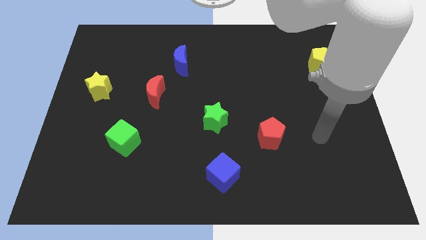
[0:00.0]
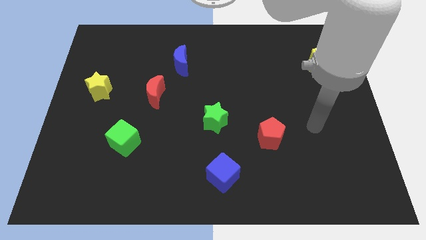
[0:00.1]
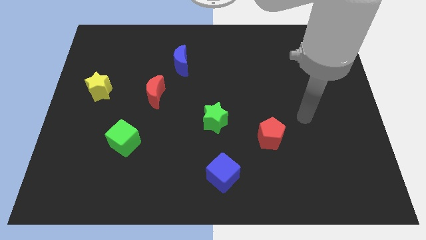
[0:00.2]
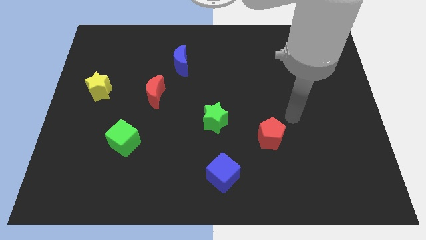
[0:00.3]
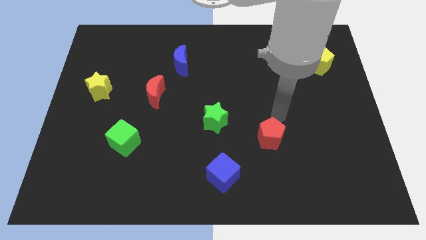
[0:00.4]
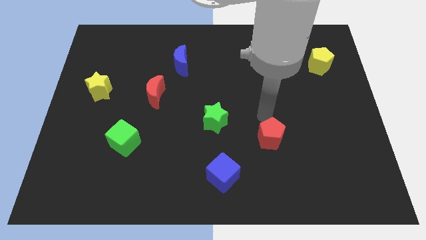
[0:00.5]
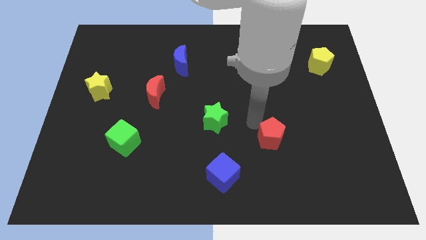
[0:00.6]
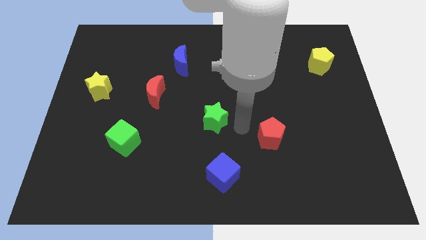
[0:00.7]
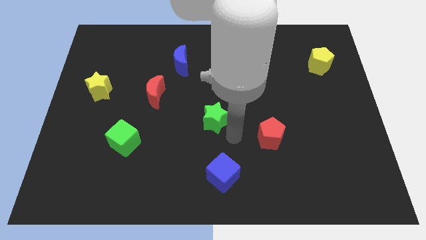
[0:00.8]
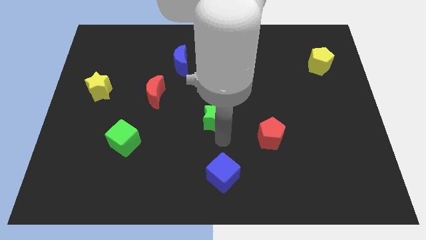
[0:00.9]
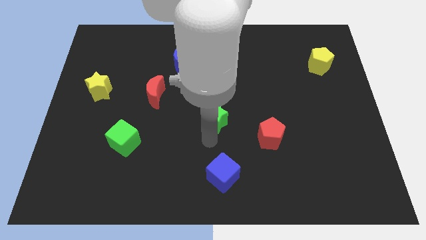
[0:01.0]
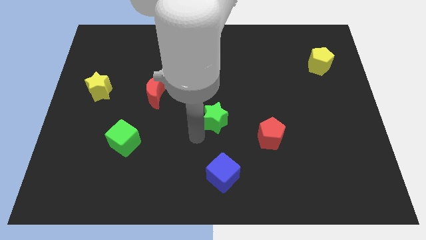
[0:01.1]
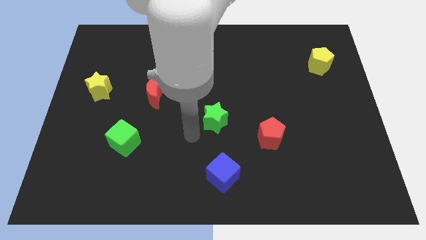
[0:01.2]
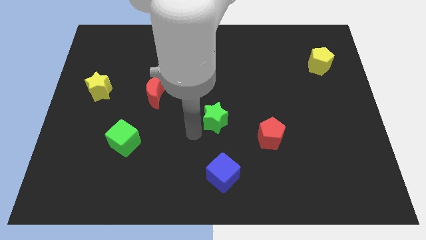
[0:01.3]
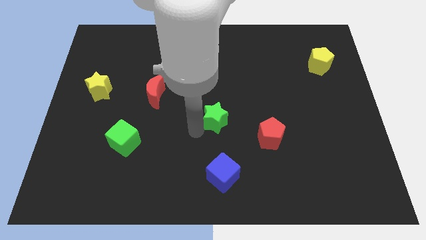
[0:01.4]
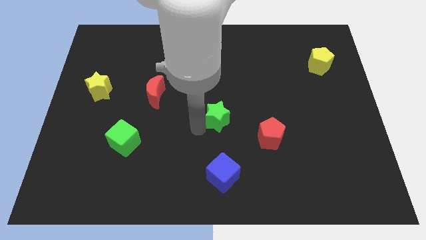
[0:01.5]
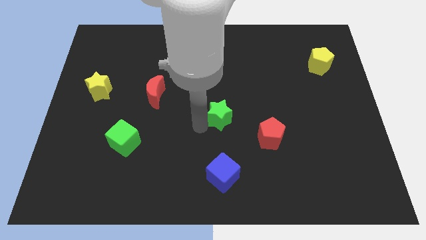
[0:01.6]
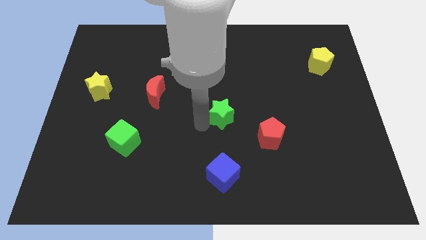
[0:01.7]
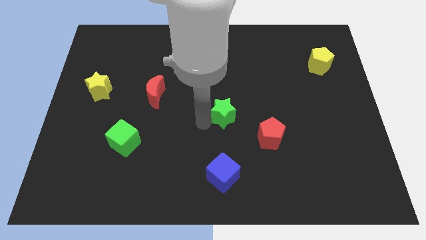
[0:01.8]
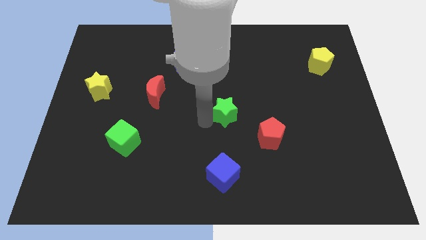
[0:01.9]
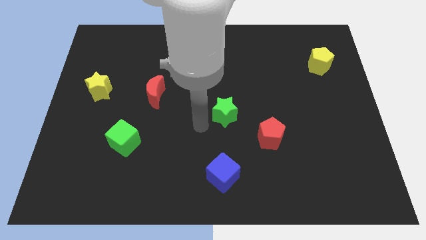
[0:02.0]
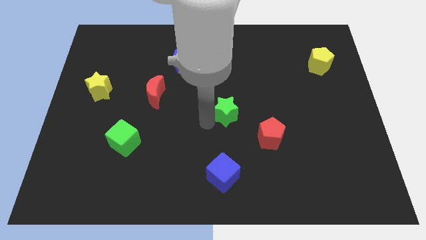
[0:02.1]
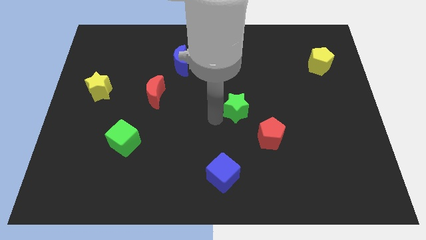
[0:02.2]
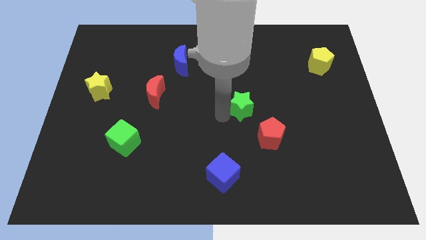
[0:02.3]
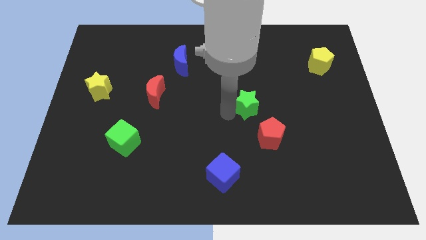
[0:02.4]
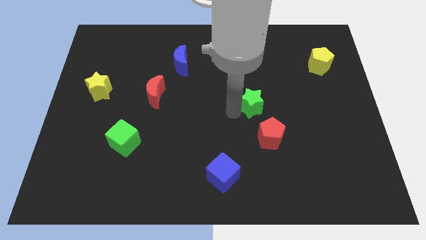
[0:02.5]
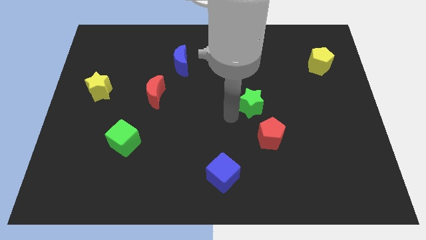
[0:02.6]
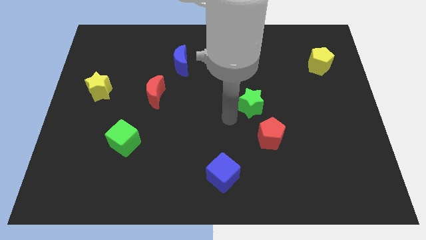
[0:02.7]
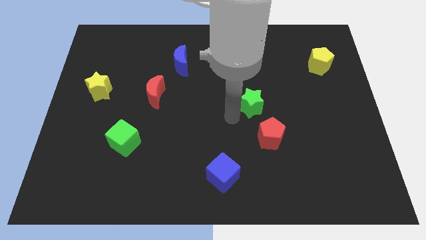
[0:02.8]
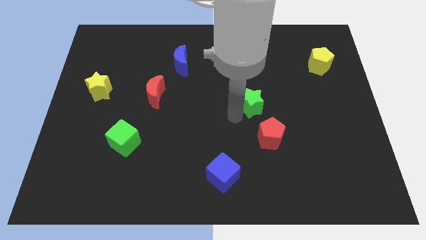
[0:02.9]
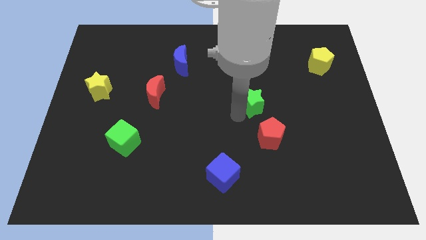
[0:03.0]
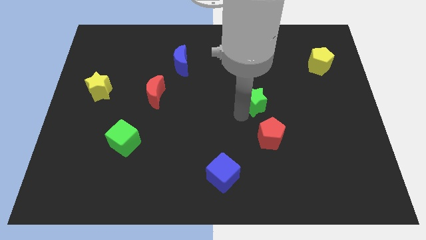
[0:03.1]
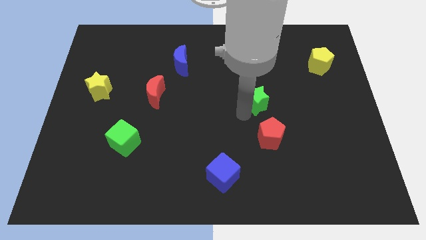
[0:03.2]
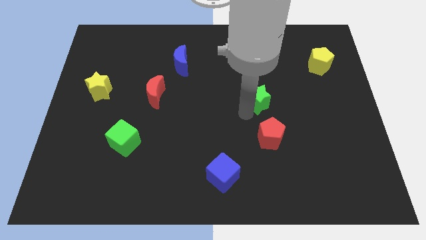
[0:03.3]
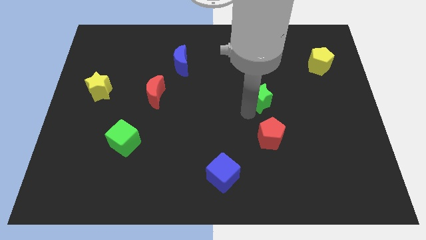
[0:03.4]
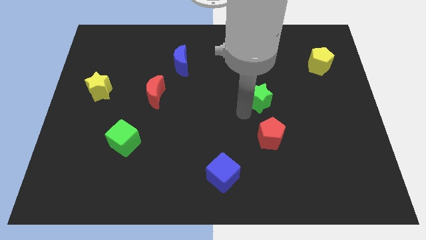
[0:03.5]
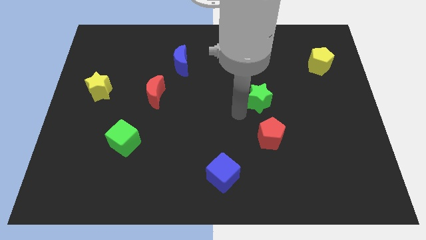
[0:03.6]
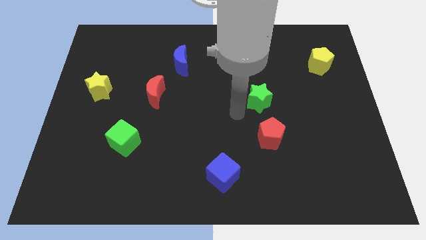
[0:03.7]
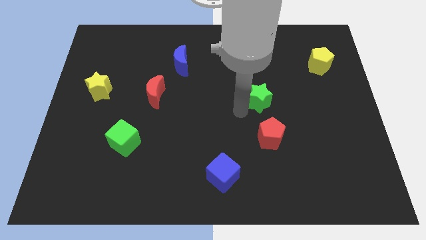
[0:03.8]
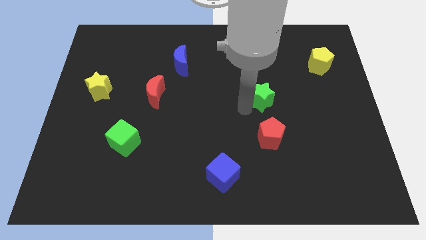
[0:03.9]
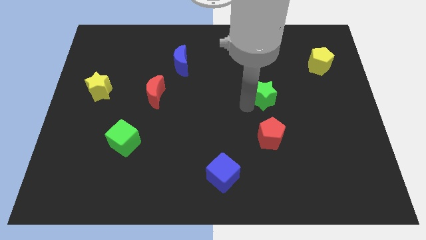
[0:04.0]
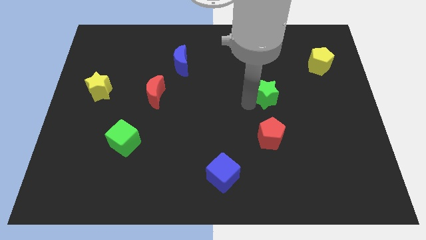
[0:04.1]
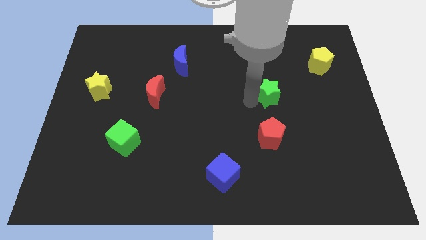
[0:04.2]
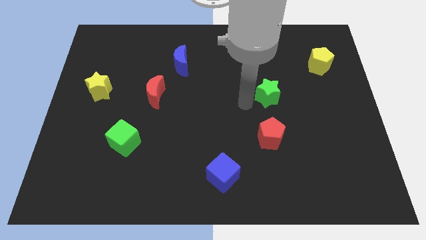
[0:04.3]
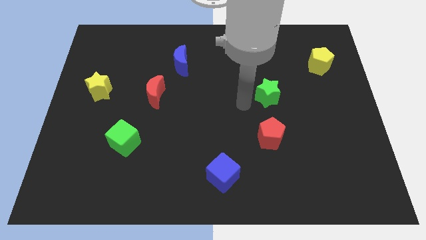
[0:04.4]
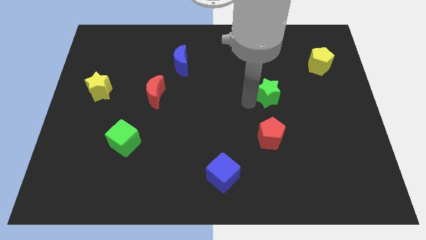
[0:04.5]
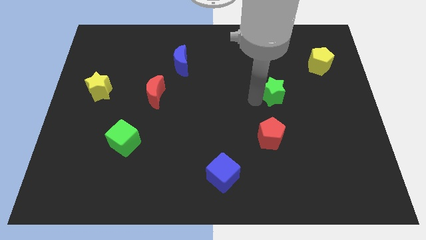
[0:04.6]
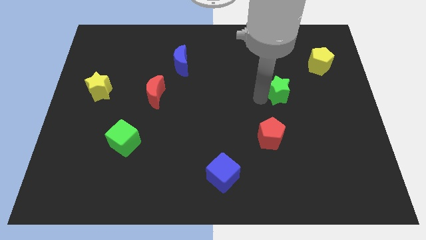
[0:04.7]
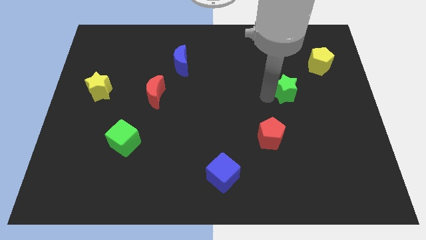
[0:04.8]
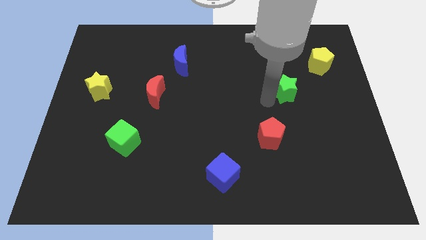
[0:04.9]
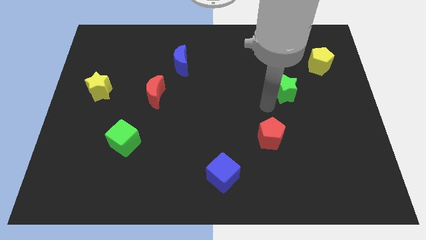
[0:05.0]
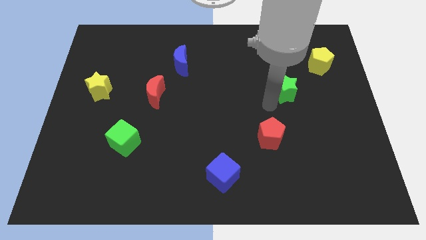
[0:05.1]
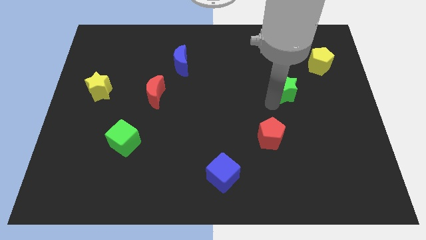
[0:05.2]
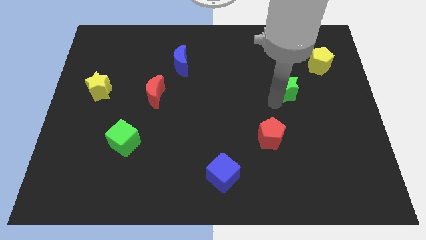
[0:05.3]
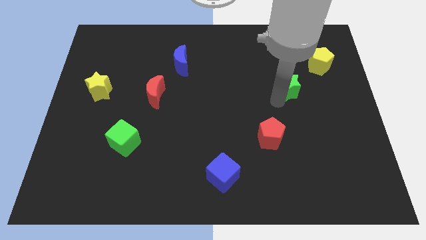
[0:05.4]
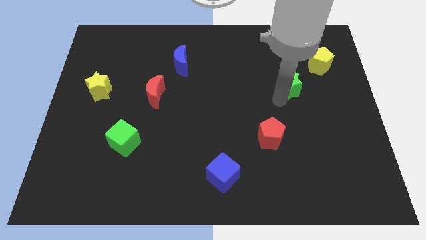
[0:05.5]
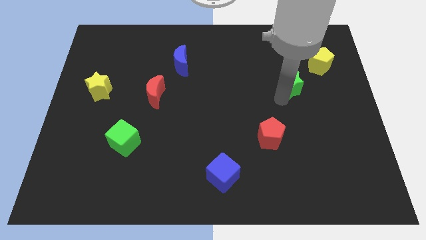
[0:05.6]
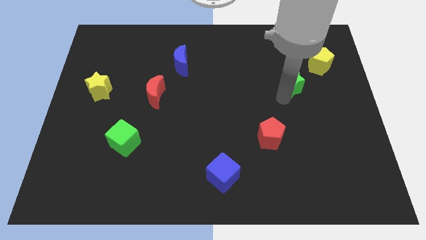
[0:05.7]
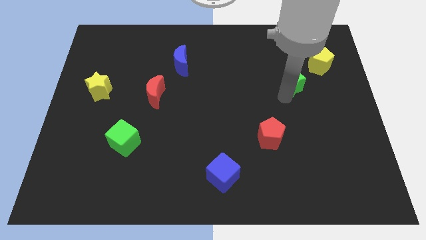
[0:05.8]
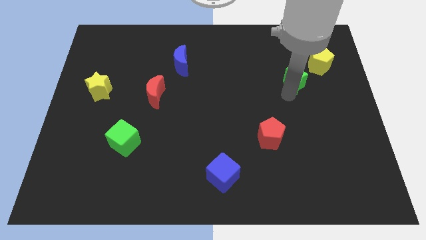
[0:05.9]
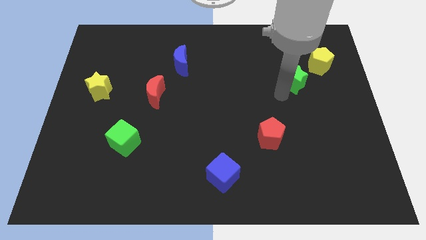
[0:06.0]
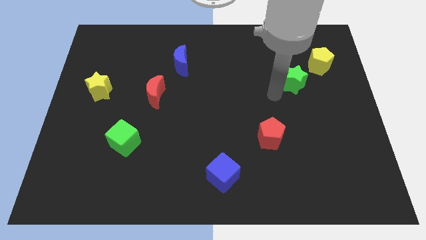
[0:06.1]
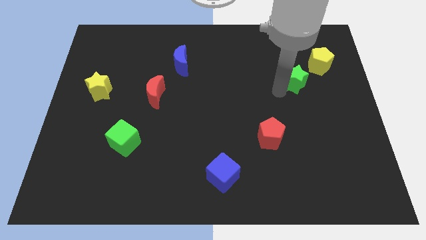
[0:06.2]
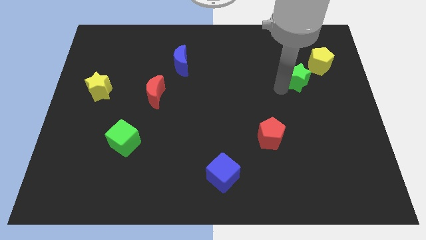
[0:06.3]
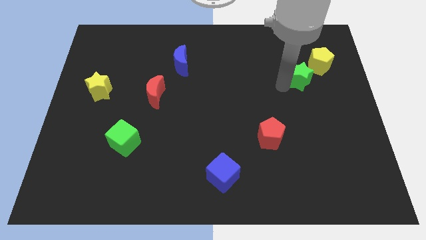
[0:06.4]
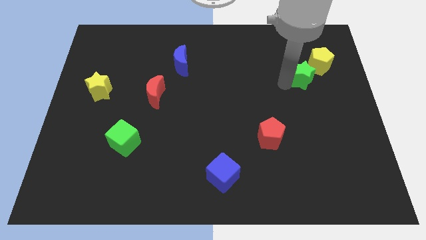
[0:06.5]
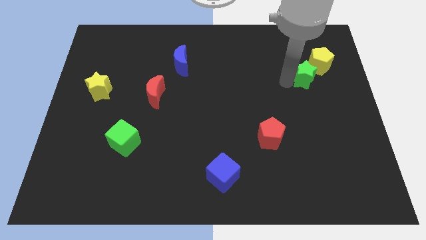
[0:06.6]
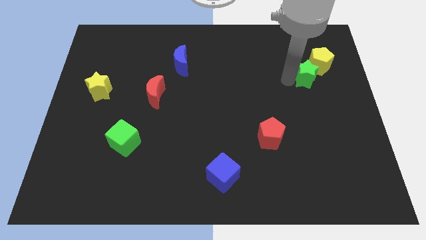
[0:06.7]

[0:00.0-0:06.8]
push the green star to the yellow pentagon

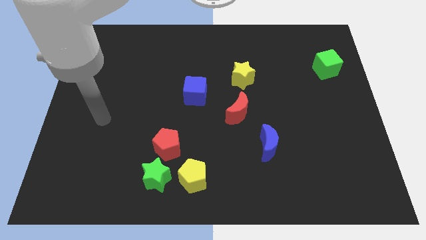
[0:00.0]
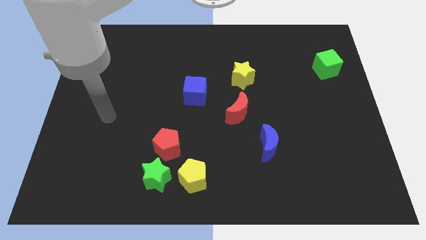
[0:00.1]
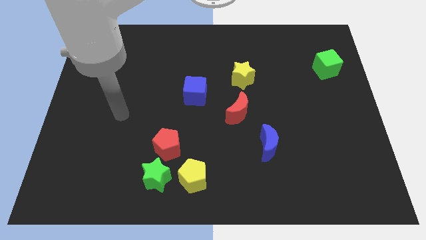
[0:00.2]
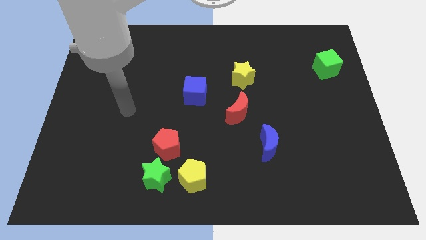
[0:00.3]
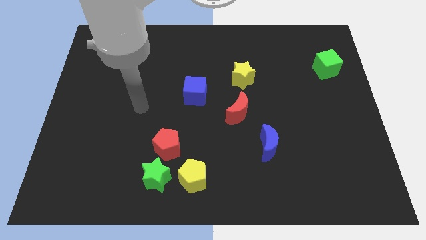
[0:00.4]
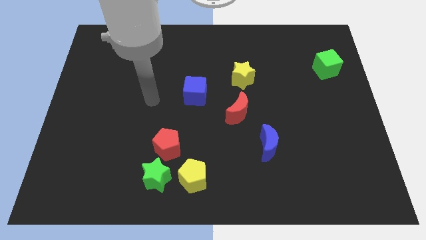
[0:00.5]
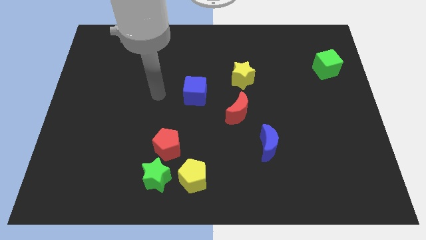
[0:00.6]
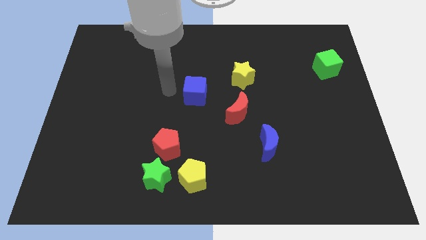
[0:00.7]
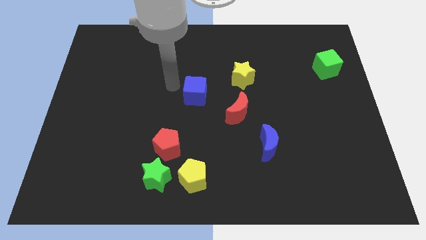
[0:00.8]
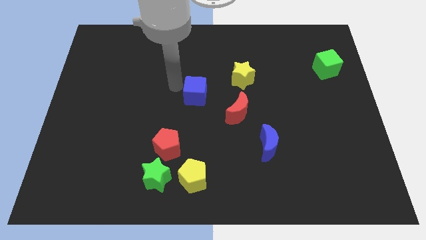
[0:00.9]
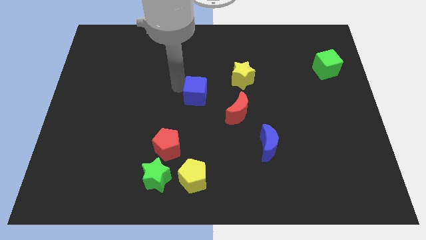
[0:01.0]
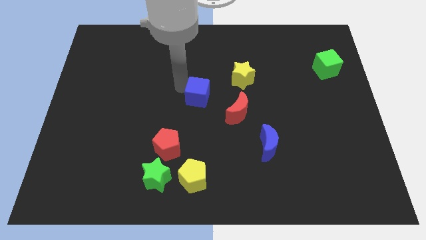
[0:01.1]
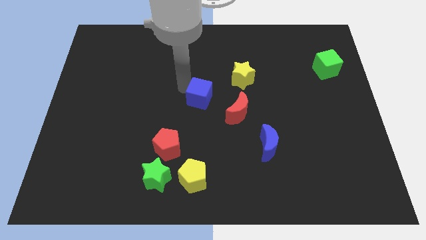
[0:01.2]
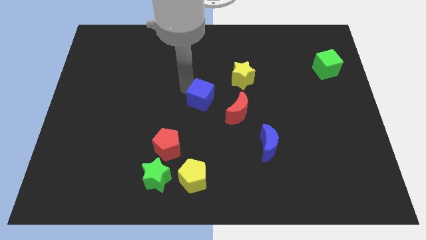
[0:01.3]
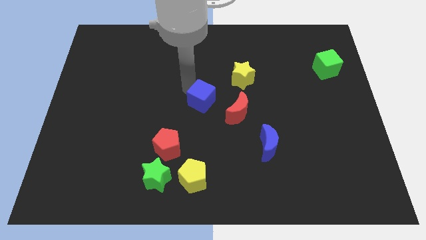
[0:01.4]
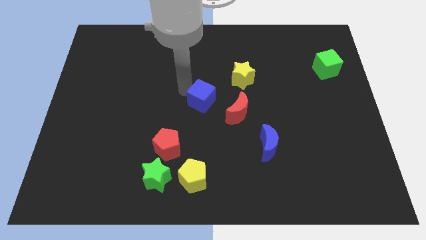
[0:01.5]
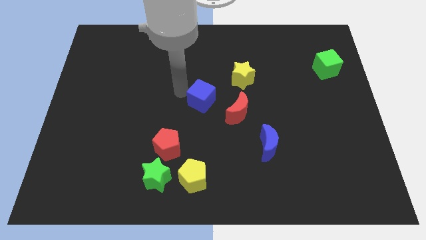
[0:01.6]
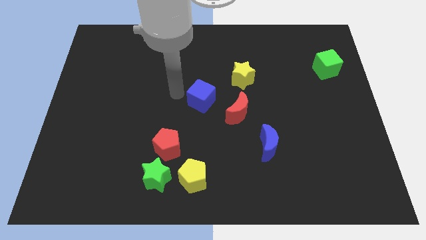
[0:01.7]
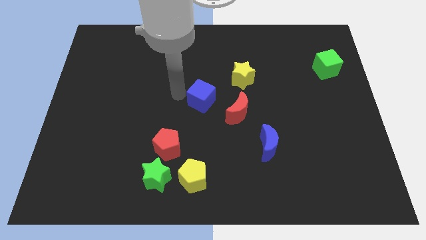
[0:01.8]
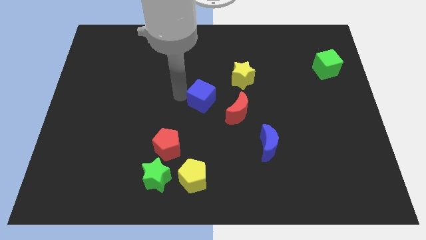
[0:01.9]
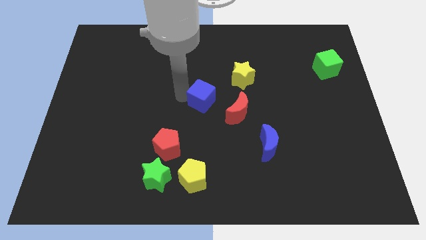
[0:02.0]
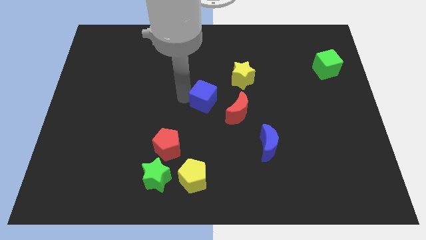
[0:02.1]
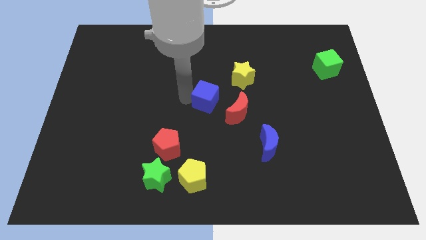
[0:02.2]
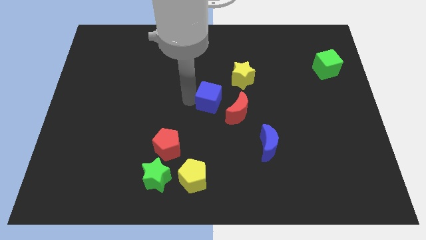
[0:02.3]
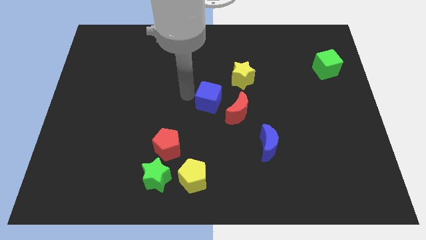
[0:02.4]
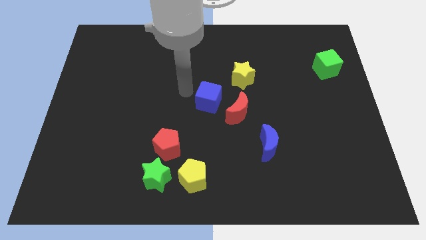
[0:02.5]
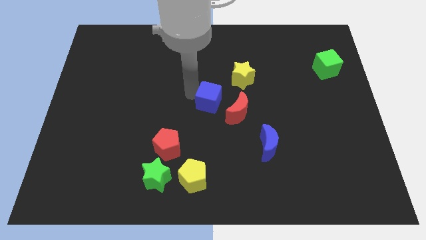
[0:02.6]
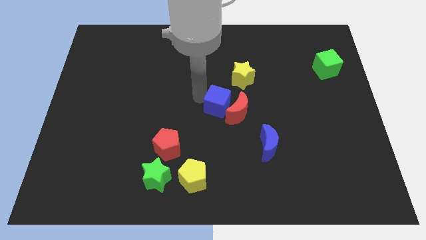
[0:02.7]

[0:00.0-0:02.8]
move the blue cube close to the red moon
